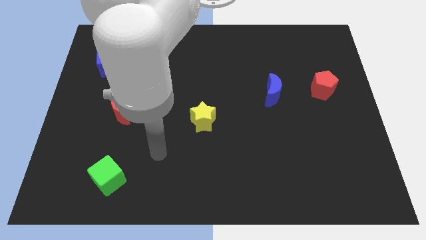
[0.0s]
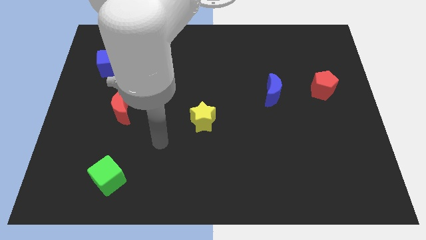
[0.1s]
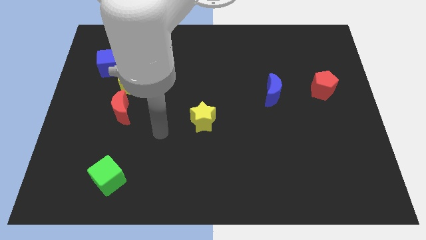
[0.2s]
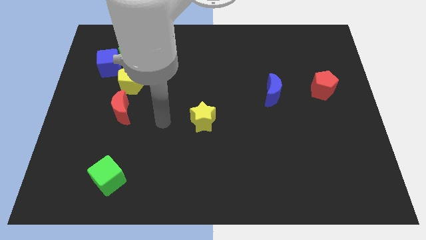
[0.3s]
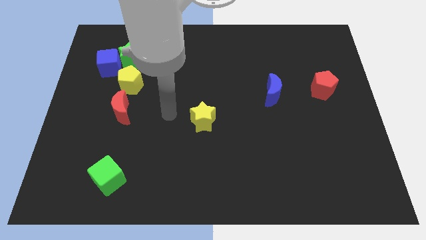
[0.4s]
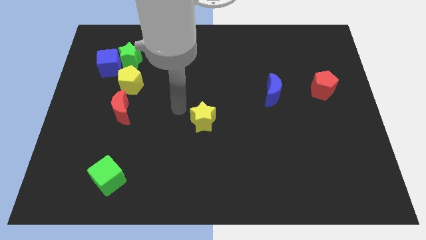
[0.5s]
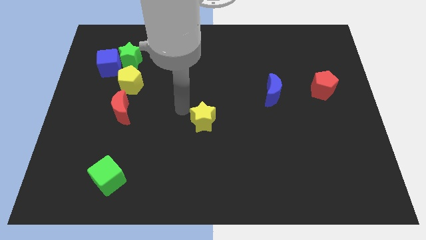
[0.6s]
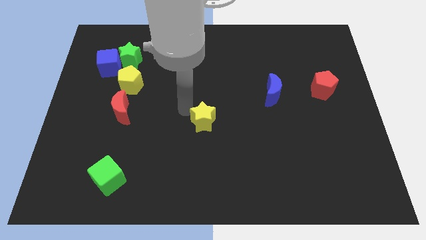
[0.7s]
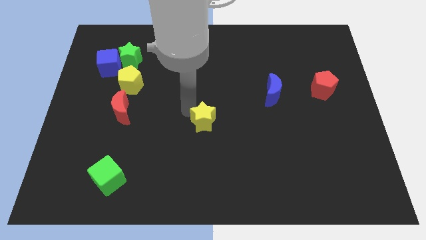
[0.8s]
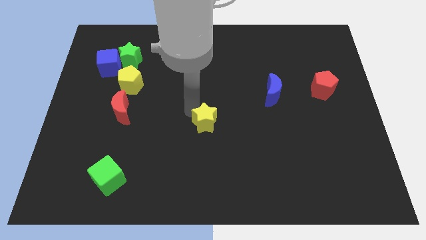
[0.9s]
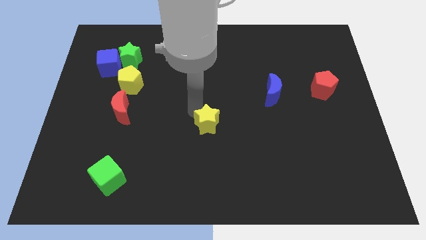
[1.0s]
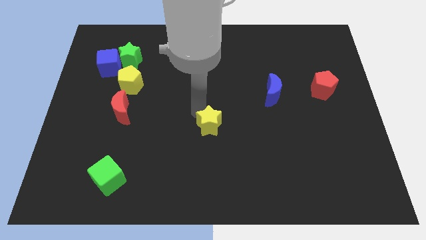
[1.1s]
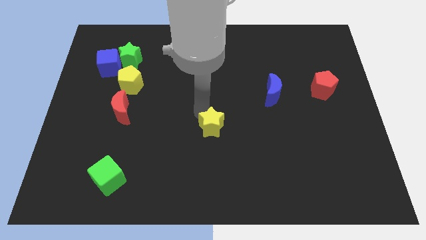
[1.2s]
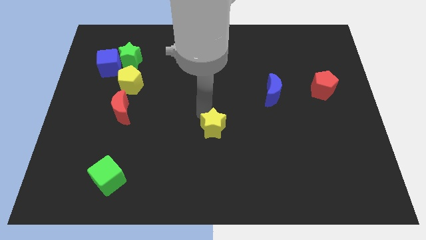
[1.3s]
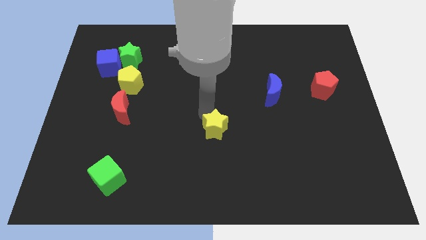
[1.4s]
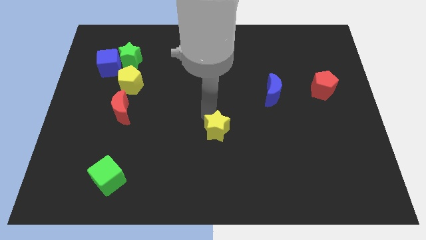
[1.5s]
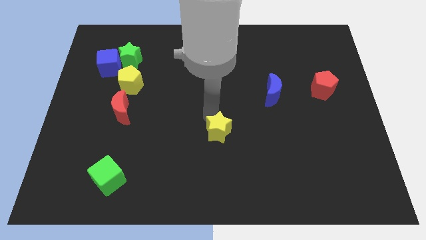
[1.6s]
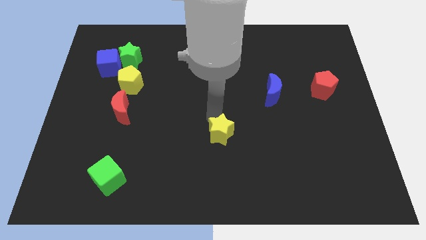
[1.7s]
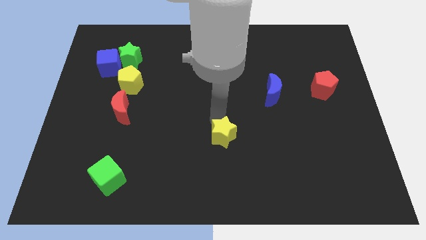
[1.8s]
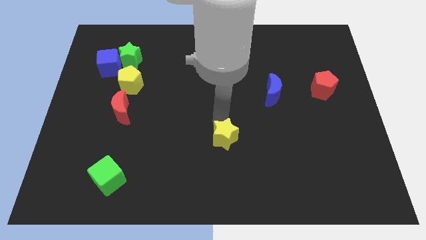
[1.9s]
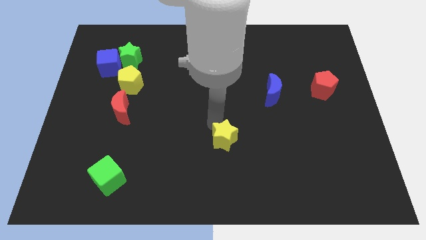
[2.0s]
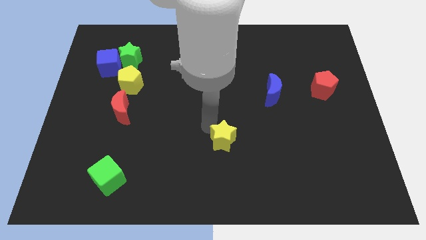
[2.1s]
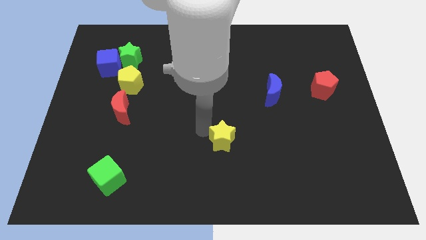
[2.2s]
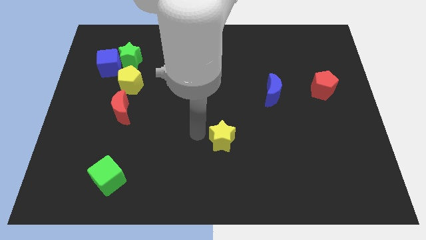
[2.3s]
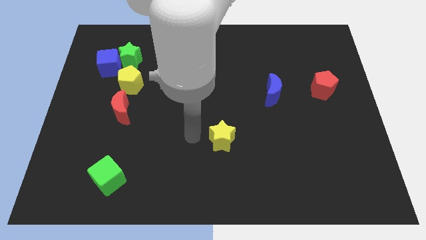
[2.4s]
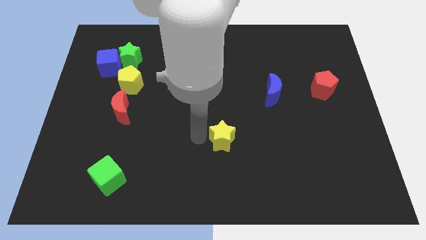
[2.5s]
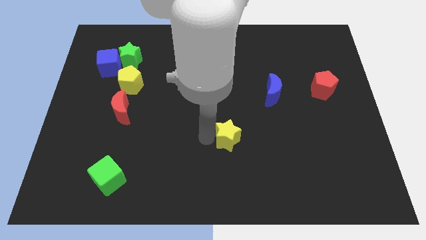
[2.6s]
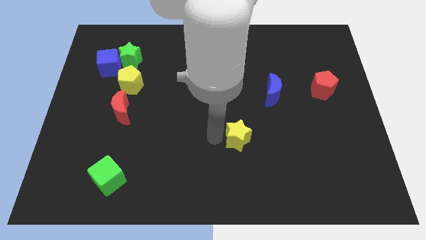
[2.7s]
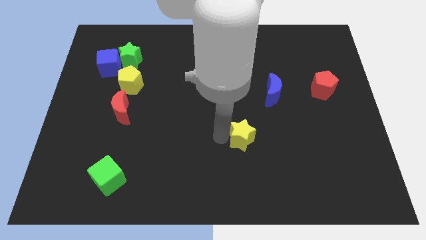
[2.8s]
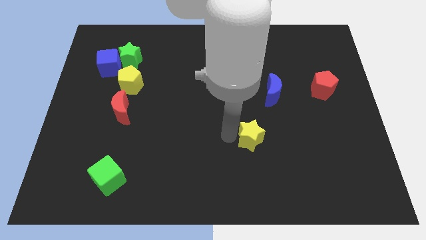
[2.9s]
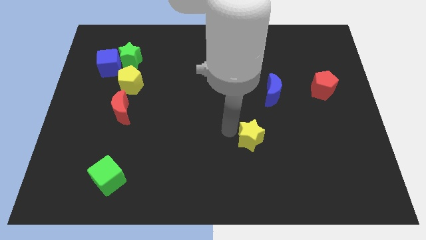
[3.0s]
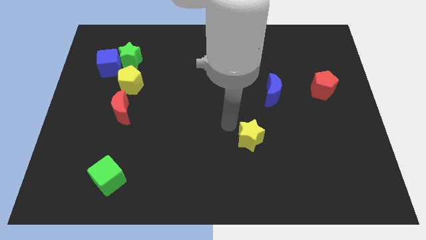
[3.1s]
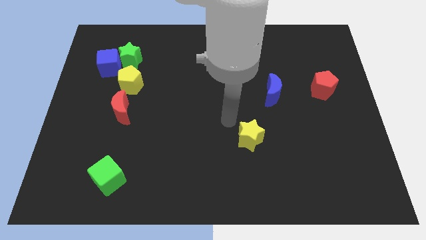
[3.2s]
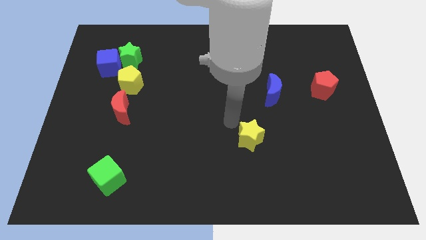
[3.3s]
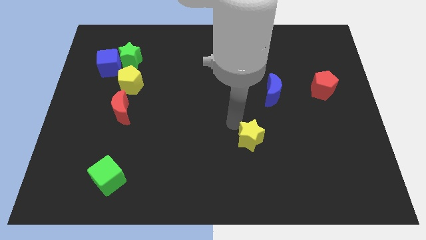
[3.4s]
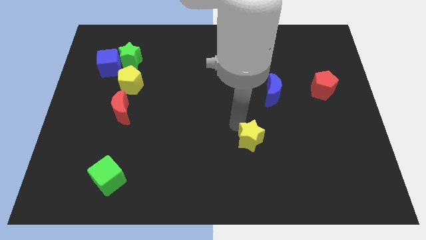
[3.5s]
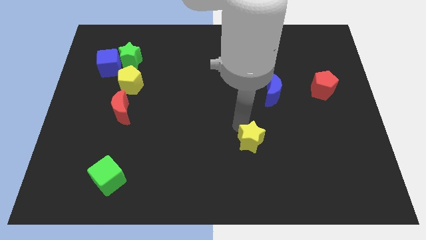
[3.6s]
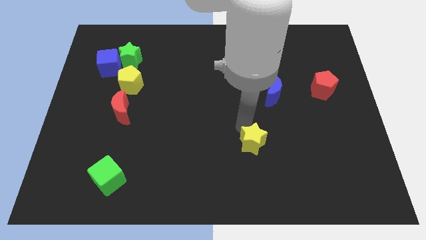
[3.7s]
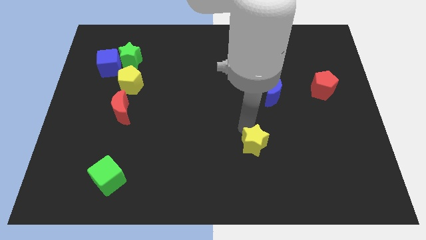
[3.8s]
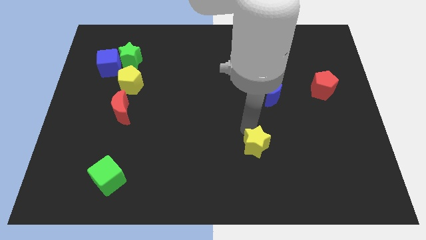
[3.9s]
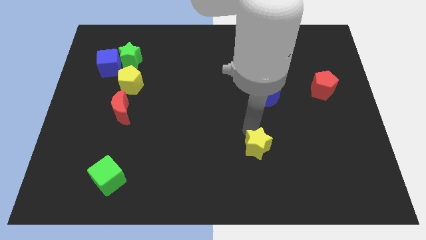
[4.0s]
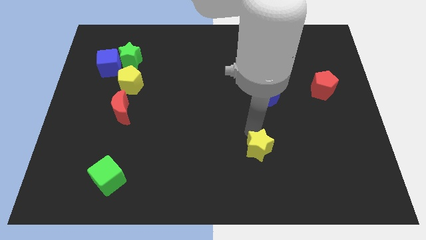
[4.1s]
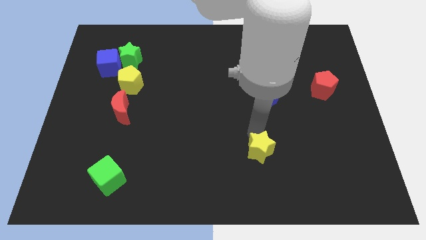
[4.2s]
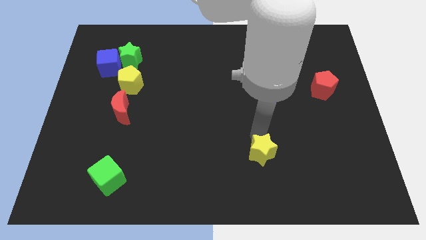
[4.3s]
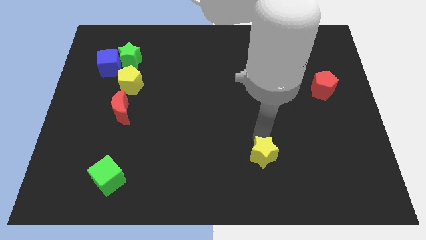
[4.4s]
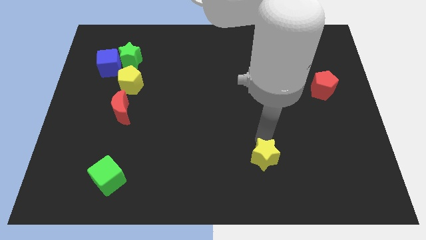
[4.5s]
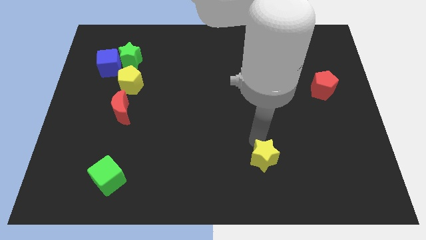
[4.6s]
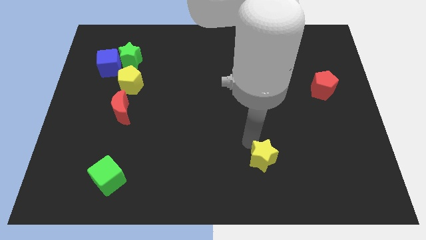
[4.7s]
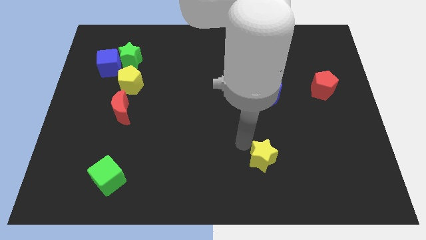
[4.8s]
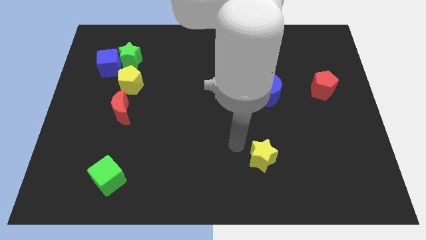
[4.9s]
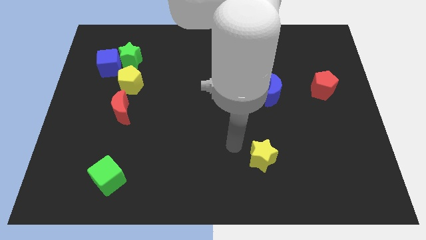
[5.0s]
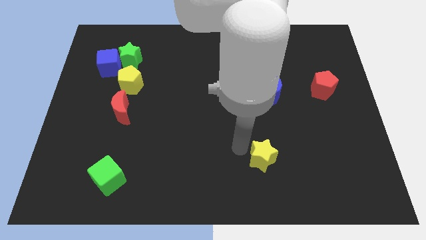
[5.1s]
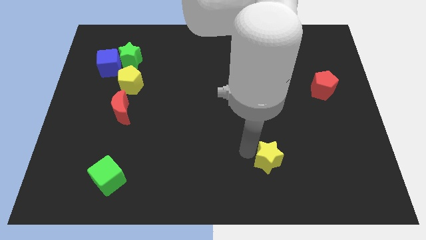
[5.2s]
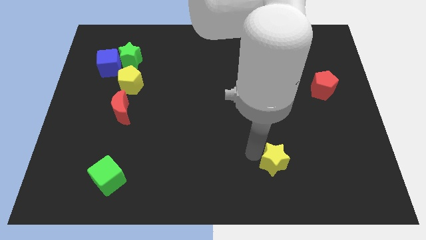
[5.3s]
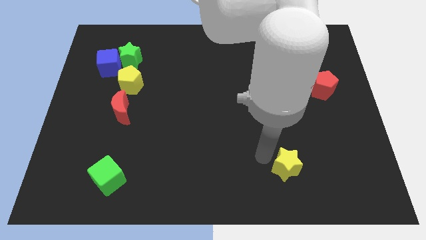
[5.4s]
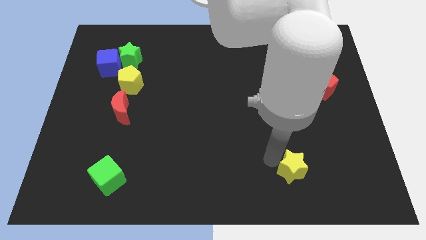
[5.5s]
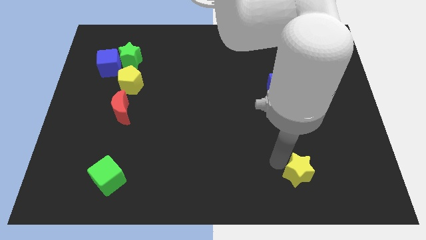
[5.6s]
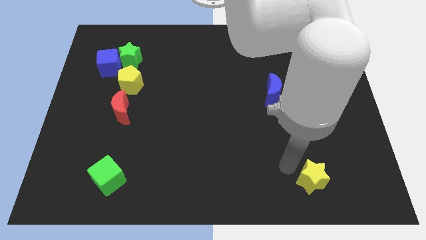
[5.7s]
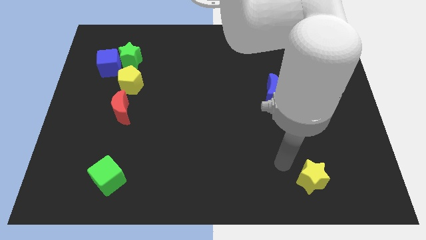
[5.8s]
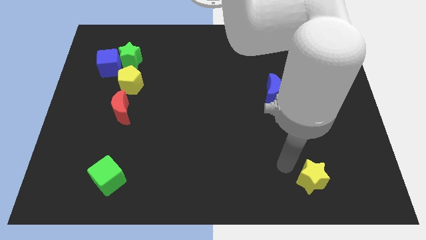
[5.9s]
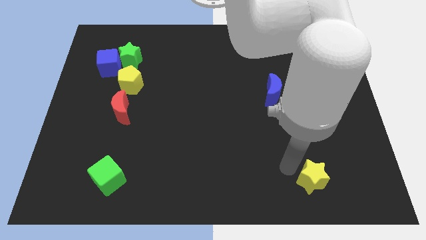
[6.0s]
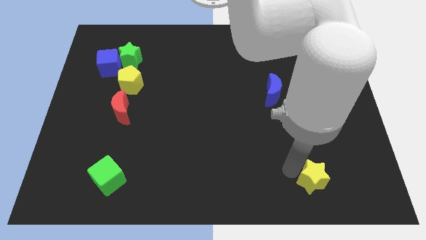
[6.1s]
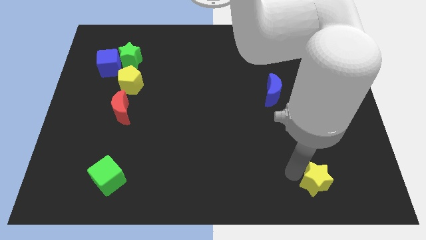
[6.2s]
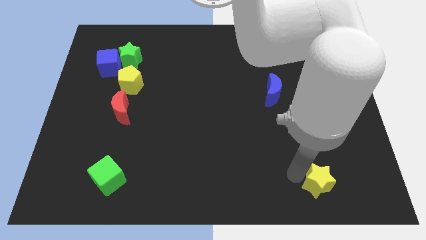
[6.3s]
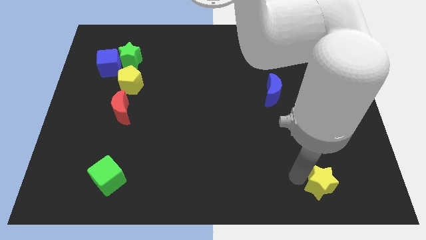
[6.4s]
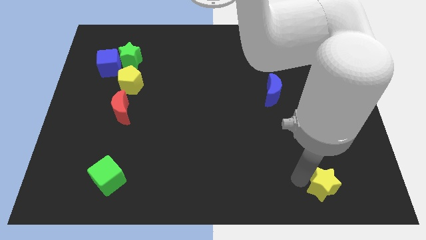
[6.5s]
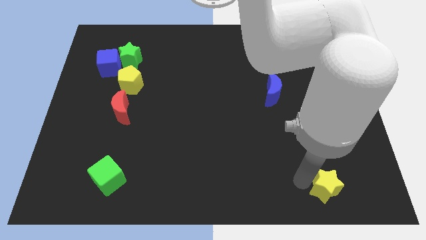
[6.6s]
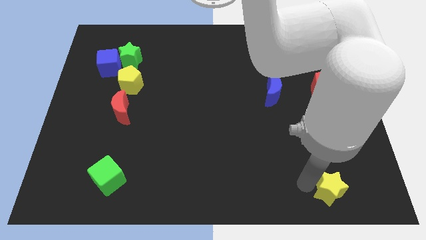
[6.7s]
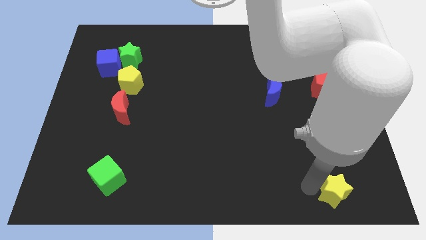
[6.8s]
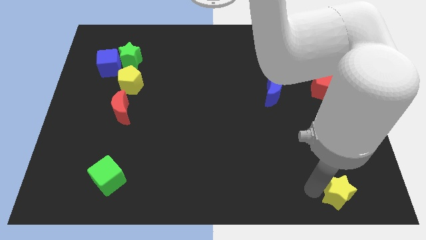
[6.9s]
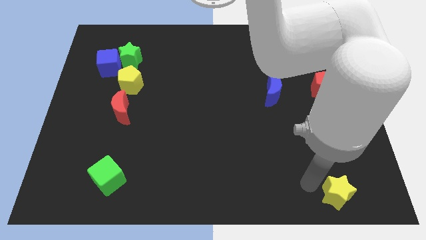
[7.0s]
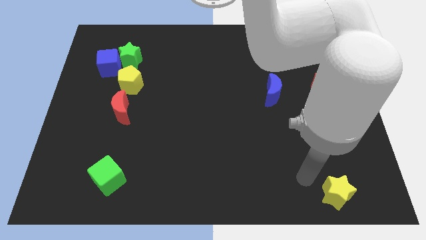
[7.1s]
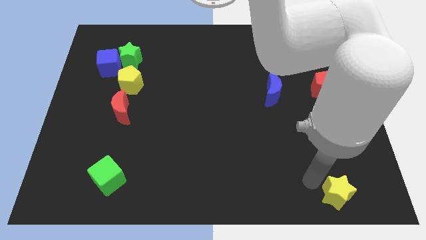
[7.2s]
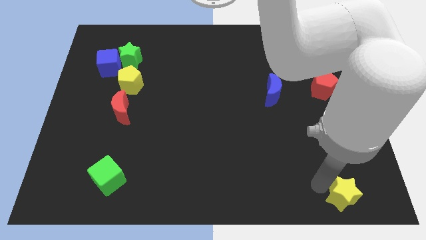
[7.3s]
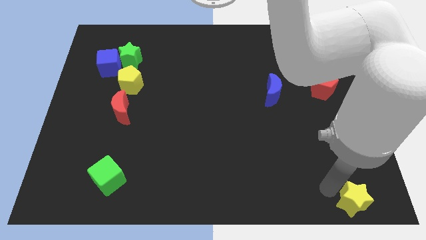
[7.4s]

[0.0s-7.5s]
push the yellow star to the lower right corner
